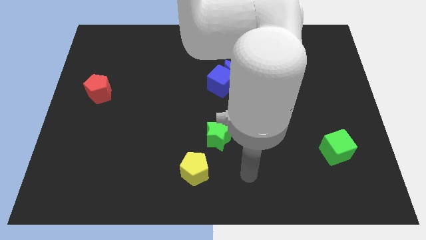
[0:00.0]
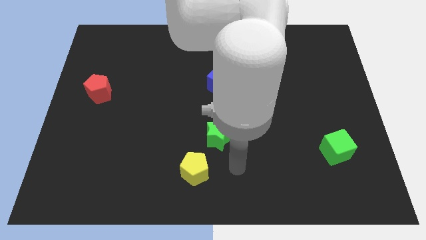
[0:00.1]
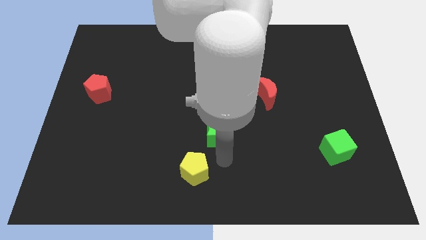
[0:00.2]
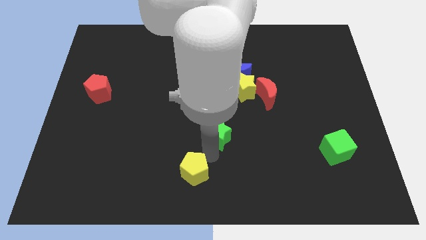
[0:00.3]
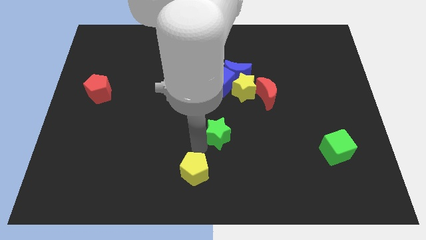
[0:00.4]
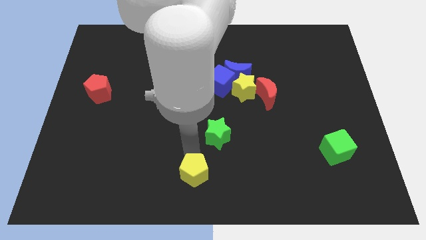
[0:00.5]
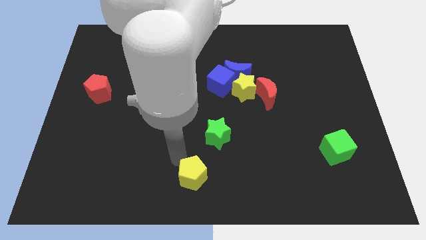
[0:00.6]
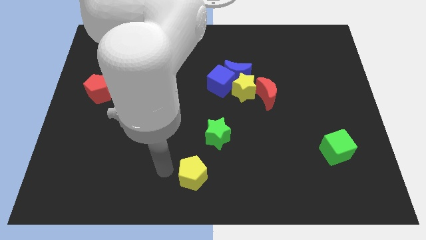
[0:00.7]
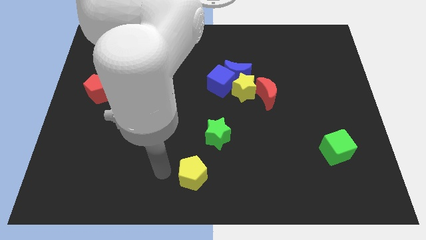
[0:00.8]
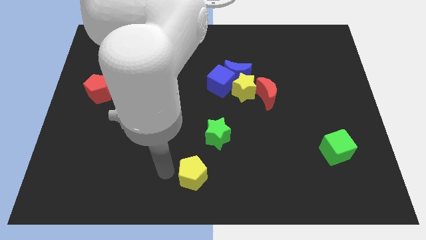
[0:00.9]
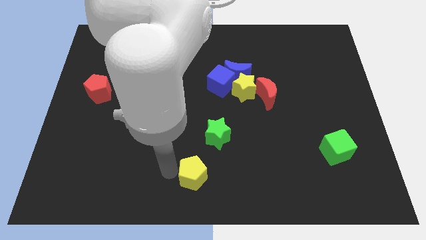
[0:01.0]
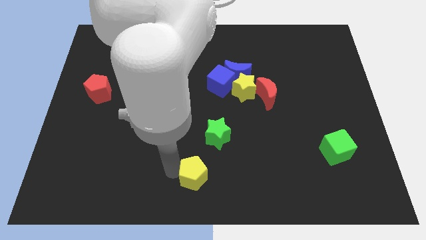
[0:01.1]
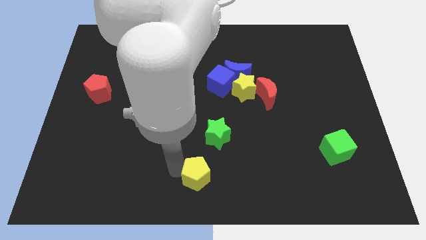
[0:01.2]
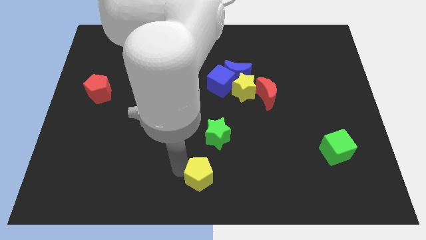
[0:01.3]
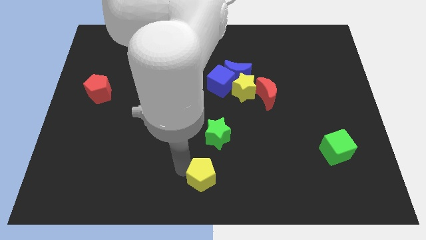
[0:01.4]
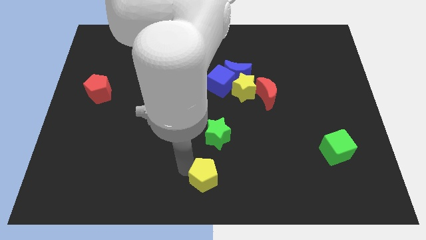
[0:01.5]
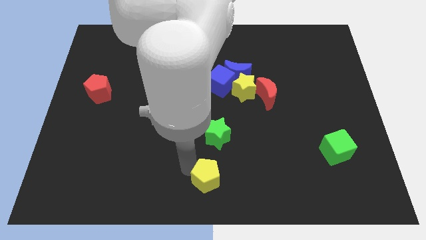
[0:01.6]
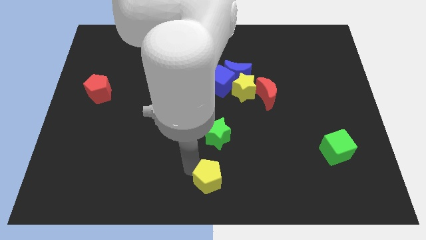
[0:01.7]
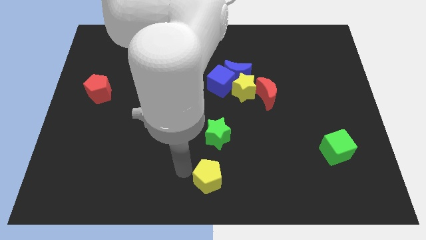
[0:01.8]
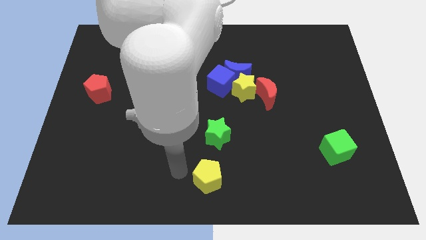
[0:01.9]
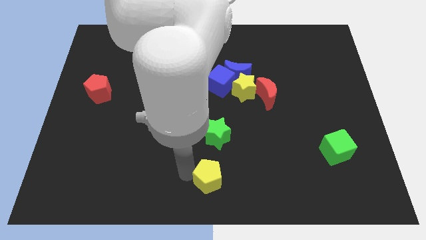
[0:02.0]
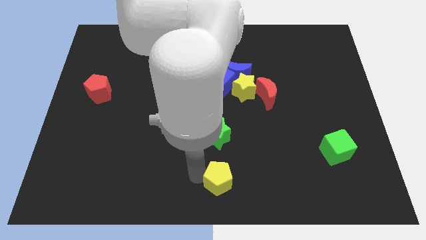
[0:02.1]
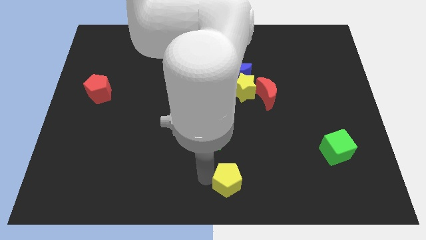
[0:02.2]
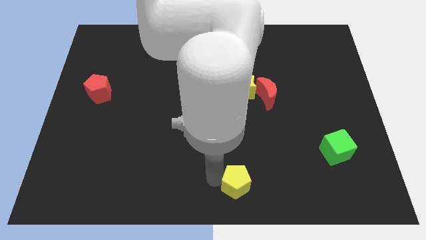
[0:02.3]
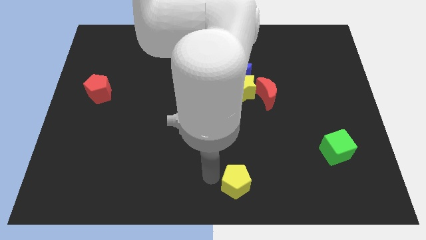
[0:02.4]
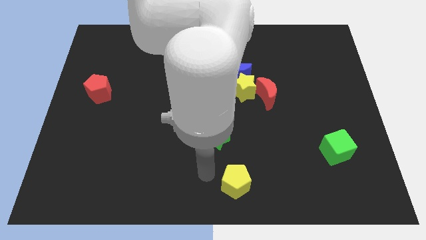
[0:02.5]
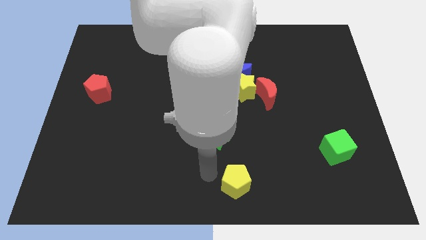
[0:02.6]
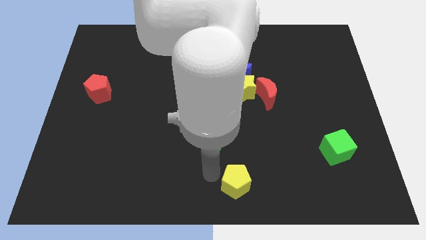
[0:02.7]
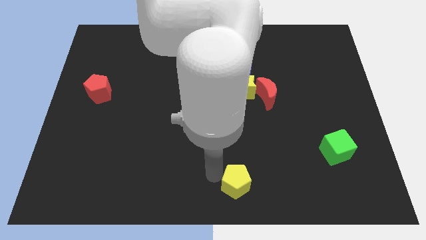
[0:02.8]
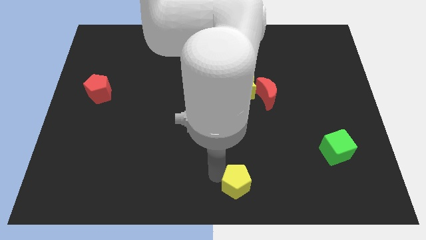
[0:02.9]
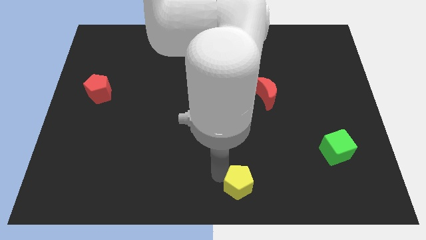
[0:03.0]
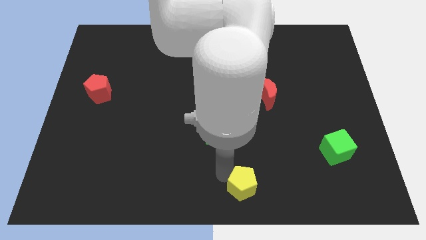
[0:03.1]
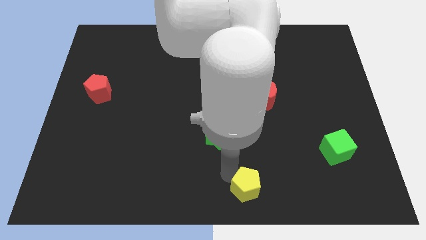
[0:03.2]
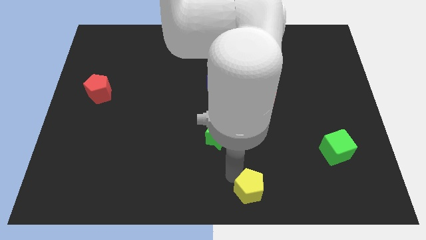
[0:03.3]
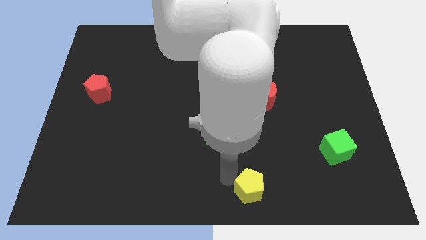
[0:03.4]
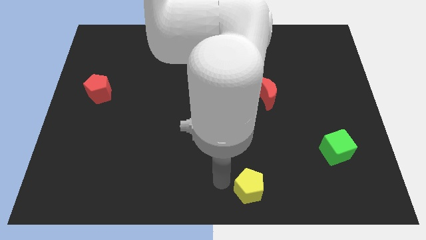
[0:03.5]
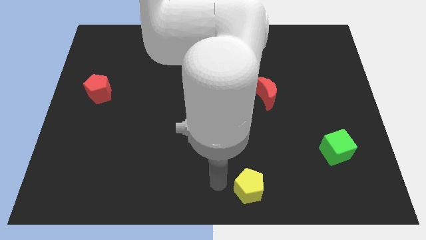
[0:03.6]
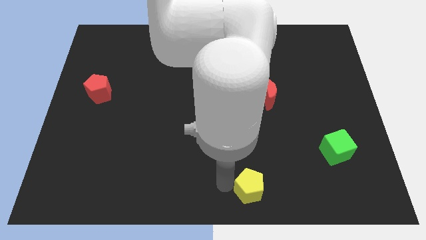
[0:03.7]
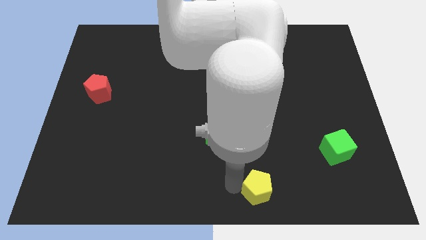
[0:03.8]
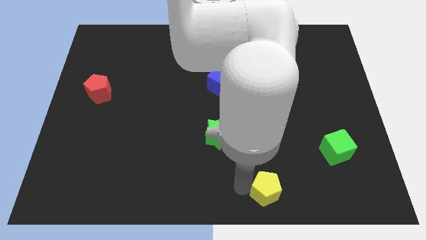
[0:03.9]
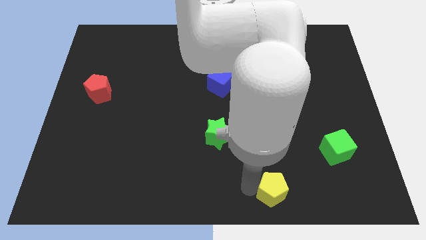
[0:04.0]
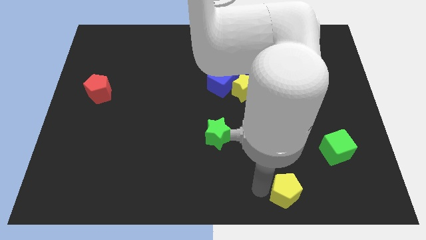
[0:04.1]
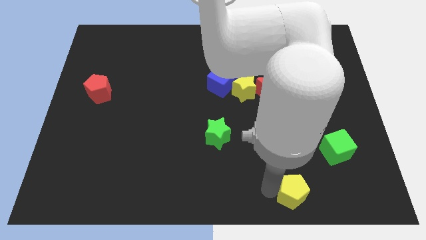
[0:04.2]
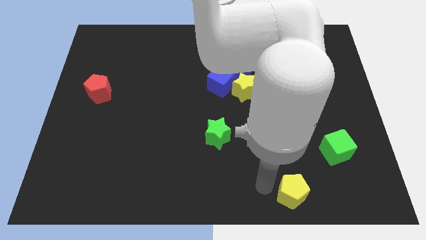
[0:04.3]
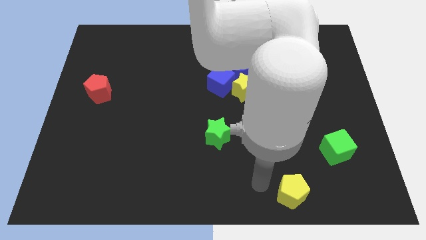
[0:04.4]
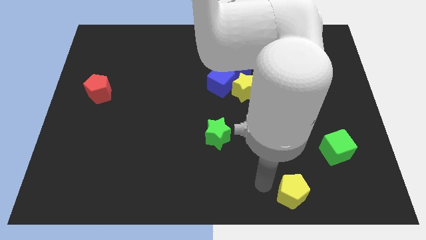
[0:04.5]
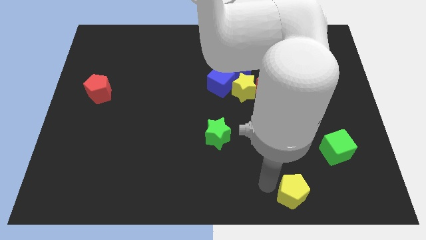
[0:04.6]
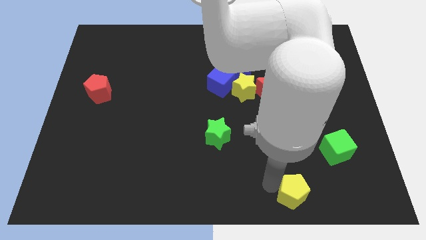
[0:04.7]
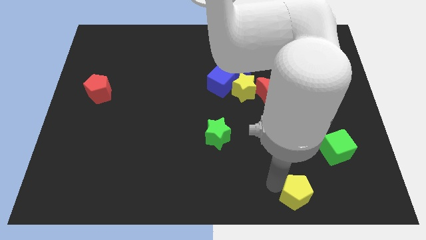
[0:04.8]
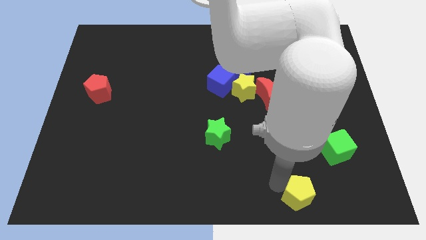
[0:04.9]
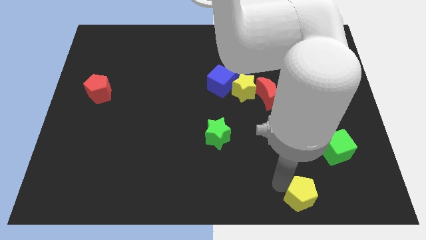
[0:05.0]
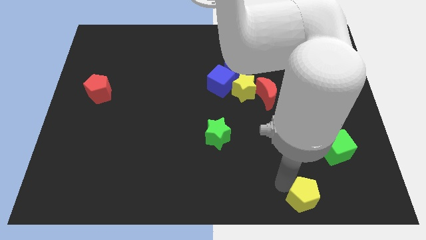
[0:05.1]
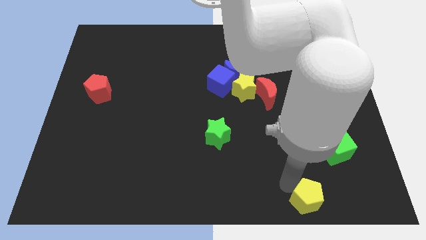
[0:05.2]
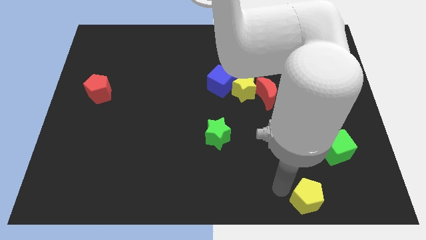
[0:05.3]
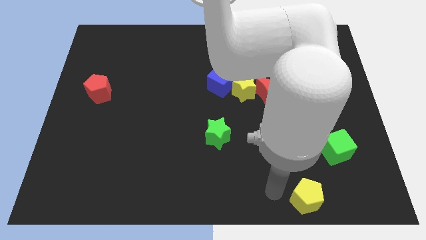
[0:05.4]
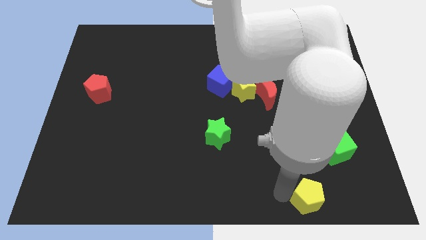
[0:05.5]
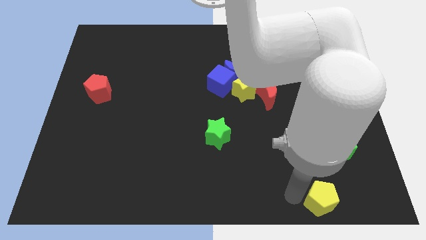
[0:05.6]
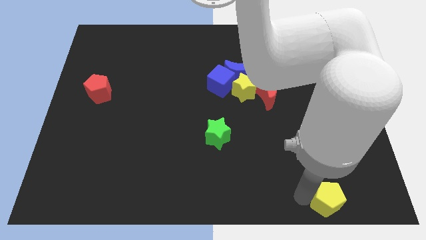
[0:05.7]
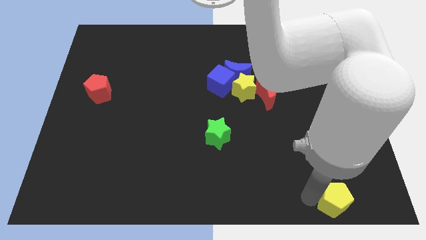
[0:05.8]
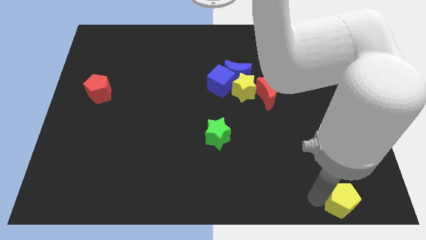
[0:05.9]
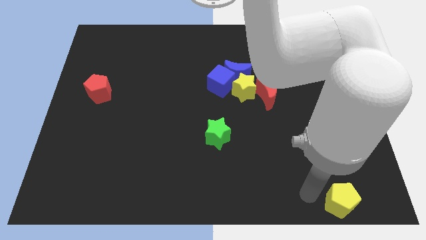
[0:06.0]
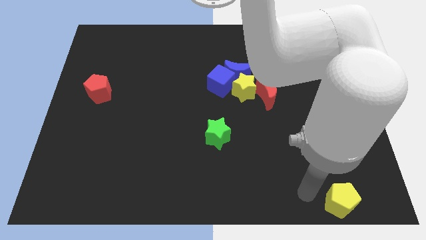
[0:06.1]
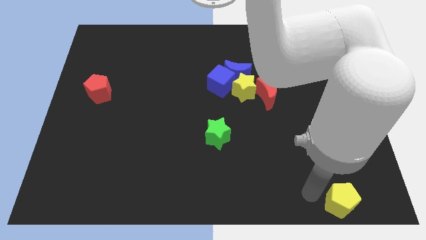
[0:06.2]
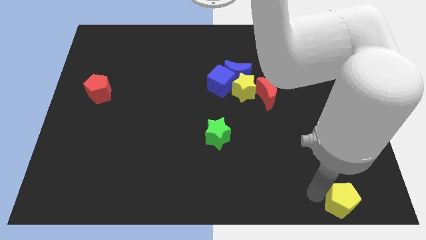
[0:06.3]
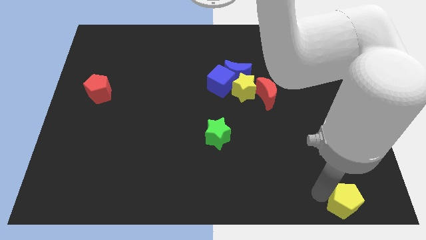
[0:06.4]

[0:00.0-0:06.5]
move the yellow pentagon to the bottom right corner
